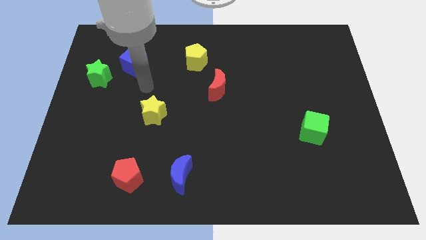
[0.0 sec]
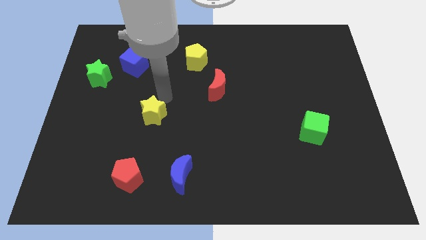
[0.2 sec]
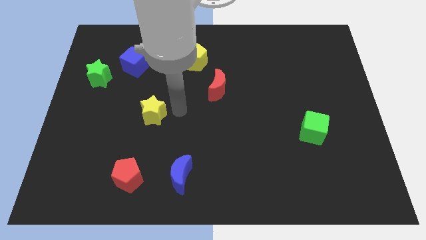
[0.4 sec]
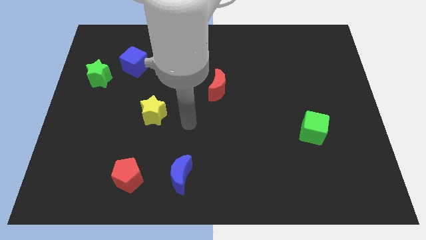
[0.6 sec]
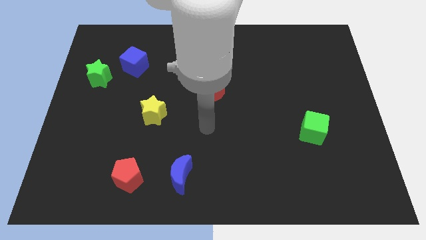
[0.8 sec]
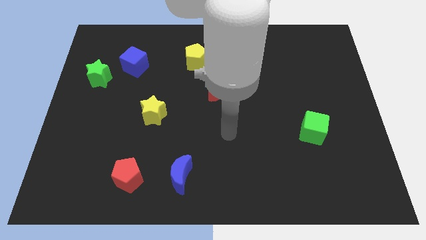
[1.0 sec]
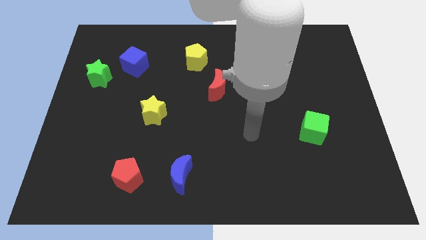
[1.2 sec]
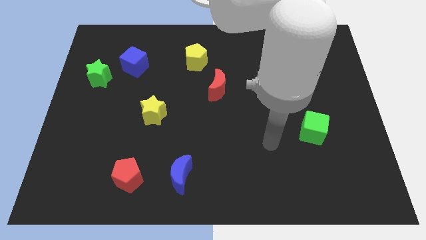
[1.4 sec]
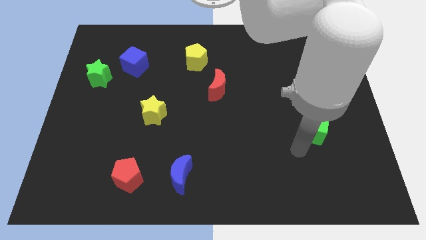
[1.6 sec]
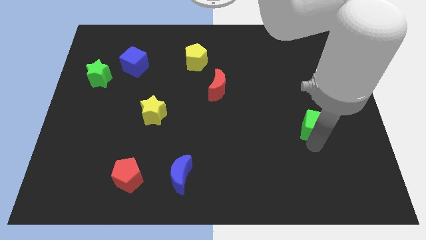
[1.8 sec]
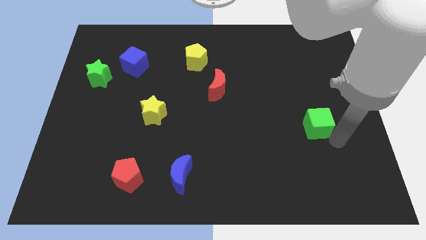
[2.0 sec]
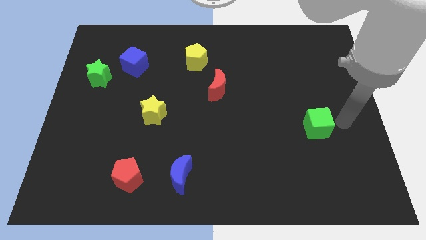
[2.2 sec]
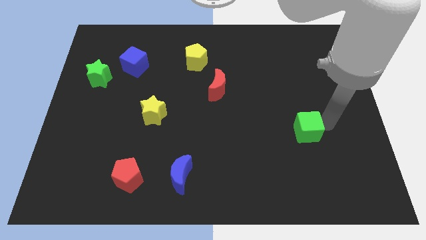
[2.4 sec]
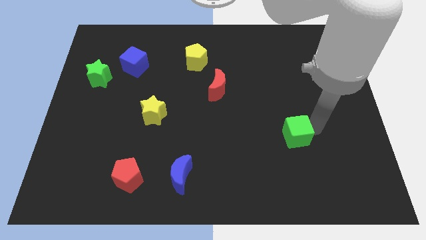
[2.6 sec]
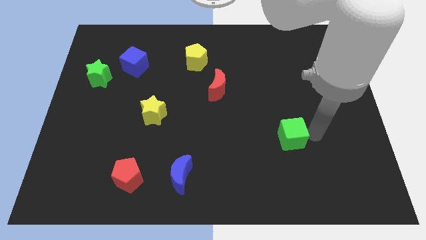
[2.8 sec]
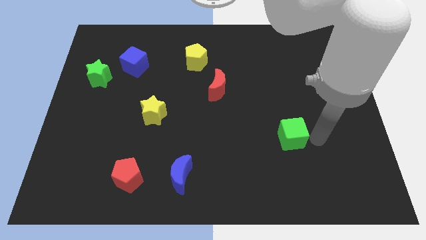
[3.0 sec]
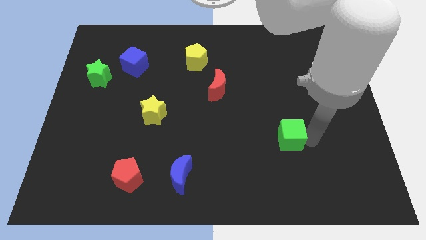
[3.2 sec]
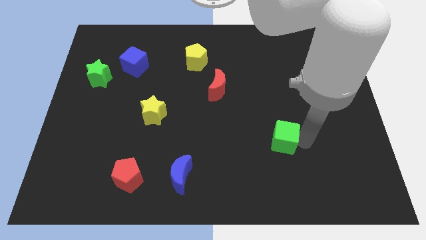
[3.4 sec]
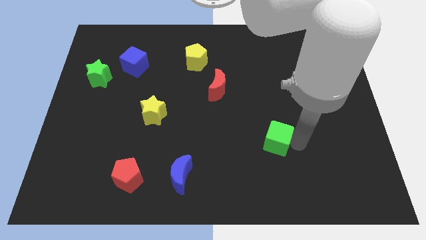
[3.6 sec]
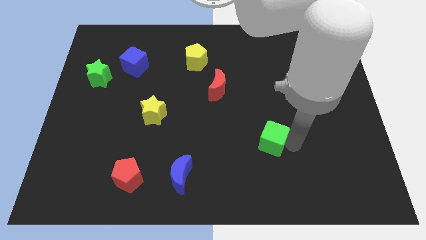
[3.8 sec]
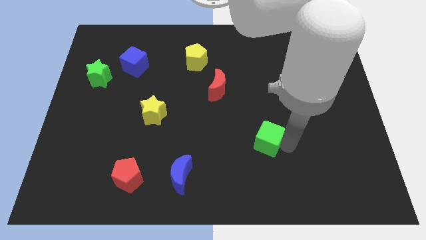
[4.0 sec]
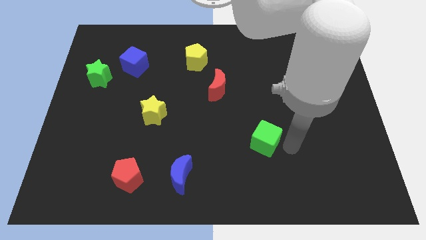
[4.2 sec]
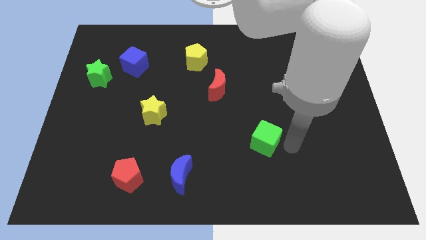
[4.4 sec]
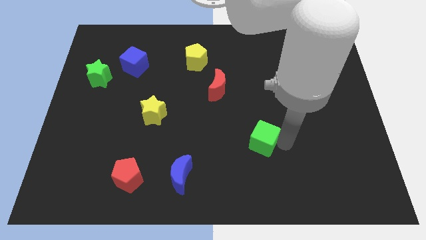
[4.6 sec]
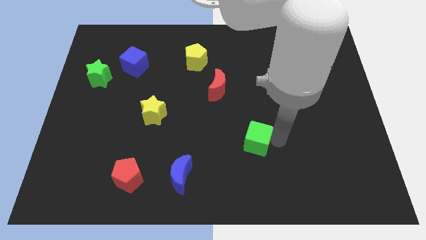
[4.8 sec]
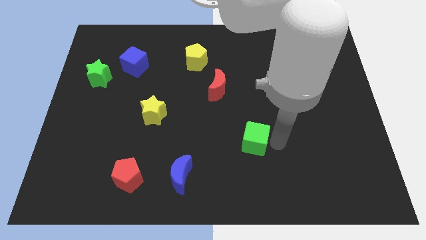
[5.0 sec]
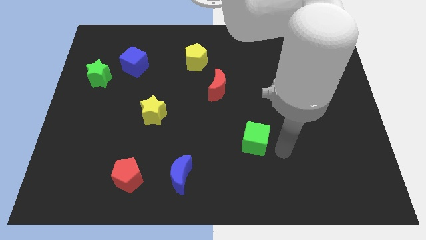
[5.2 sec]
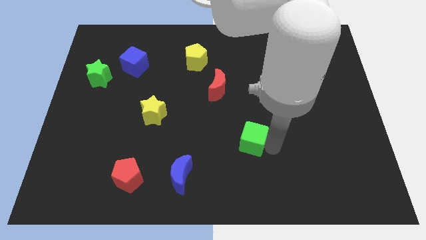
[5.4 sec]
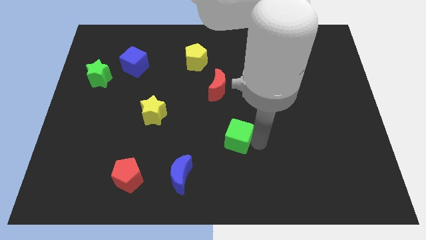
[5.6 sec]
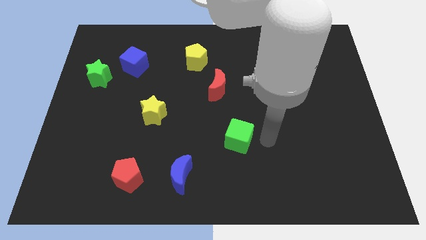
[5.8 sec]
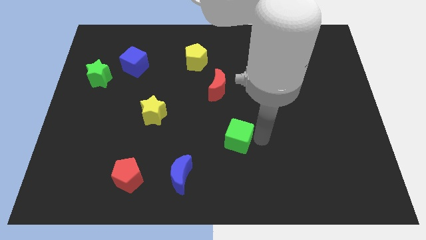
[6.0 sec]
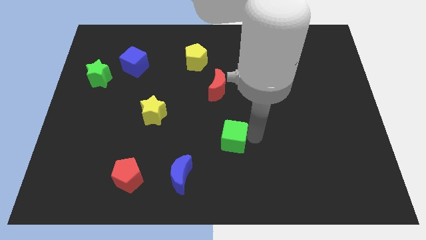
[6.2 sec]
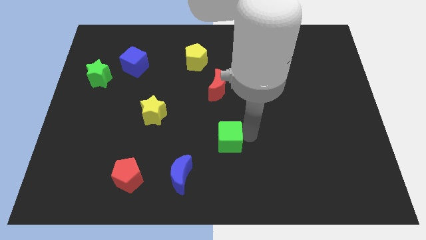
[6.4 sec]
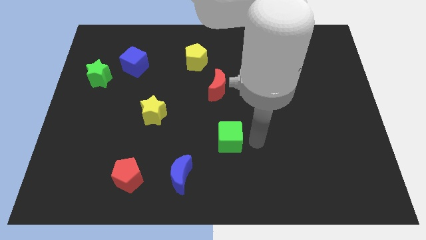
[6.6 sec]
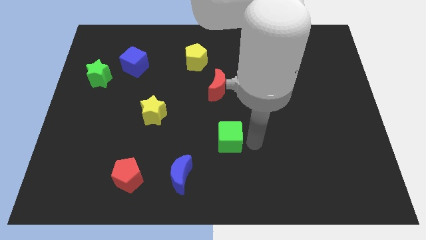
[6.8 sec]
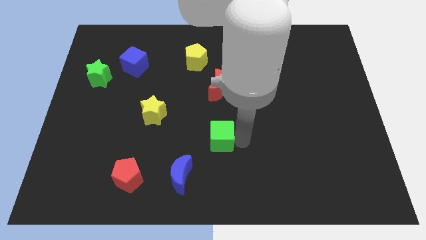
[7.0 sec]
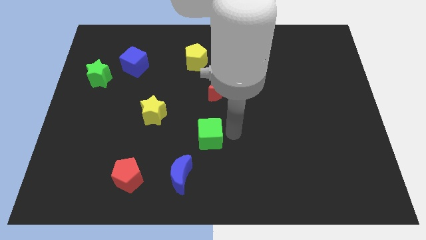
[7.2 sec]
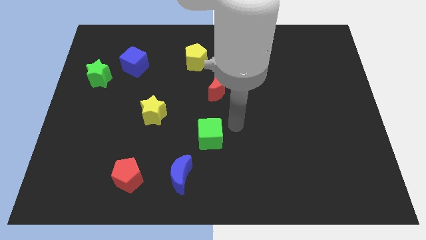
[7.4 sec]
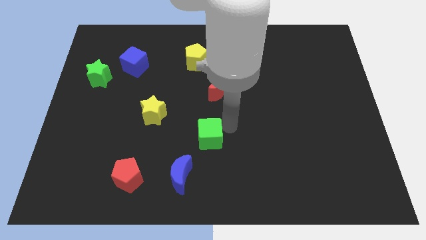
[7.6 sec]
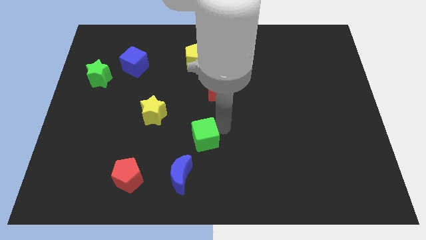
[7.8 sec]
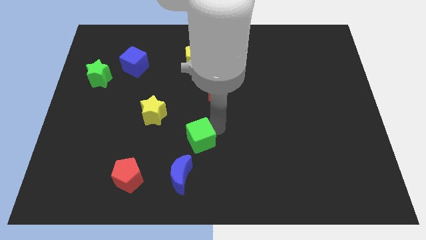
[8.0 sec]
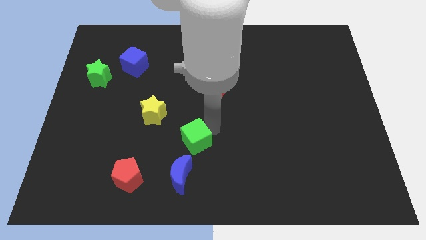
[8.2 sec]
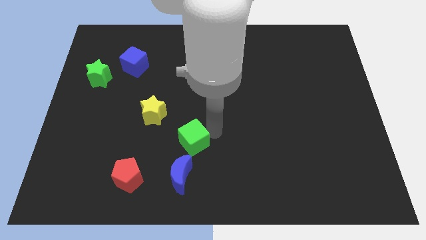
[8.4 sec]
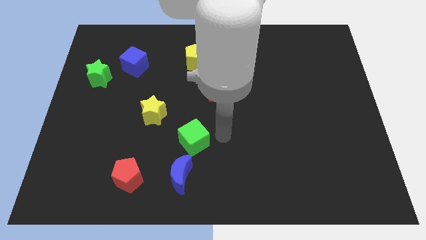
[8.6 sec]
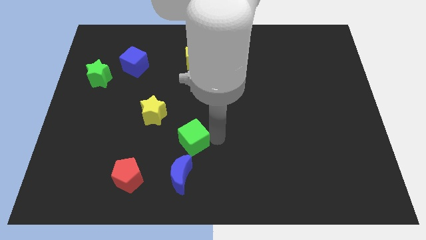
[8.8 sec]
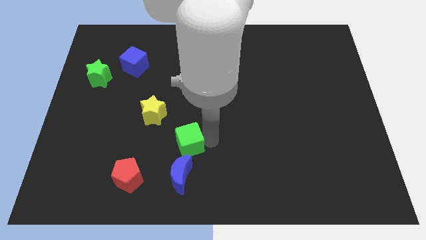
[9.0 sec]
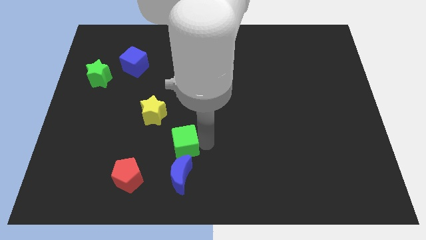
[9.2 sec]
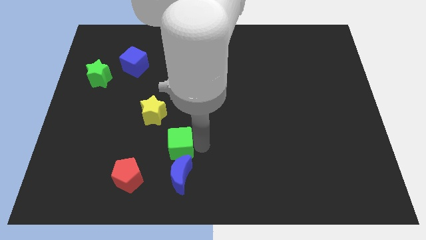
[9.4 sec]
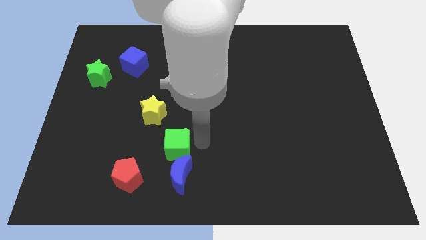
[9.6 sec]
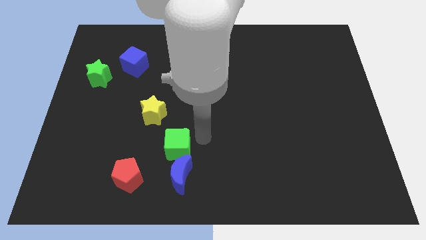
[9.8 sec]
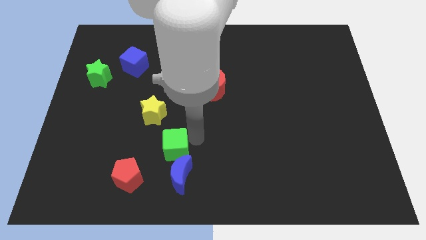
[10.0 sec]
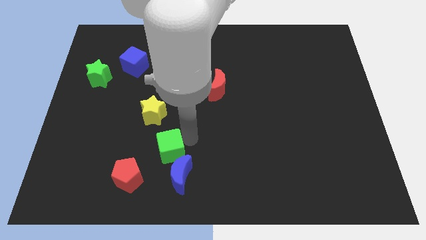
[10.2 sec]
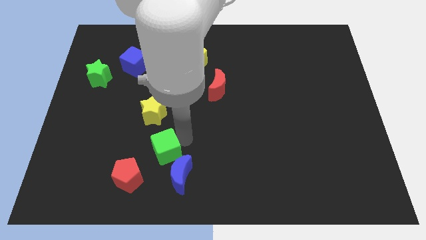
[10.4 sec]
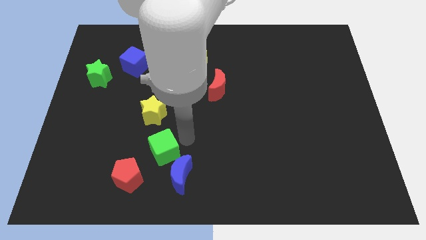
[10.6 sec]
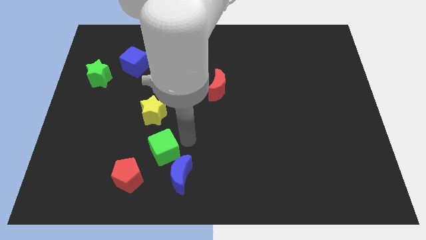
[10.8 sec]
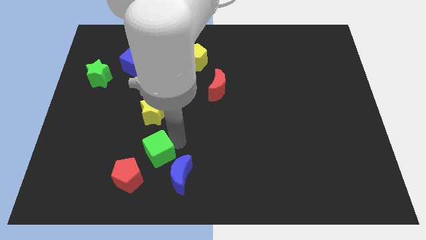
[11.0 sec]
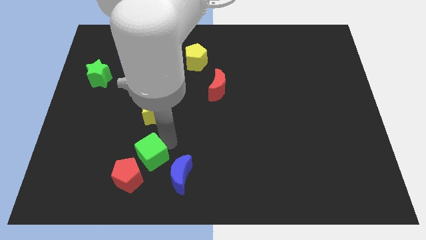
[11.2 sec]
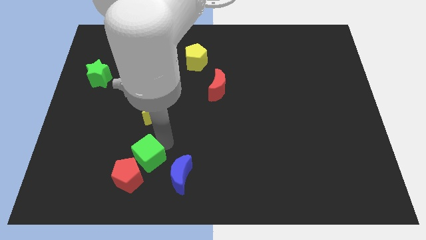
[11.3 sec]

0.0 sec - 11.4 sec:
push the green cube next to the red pentagon

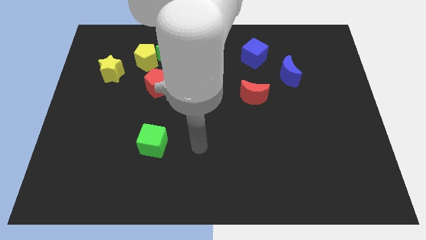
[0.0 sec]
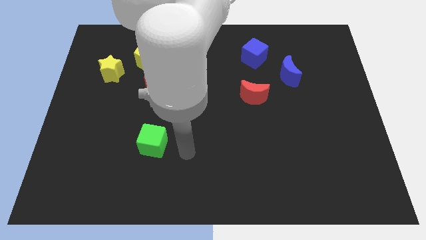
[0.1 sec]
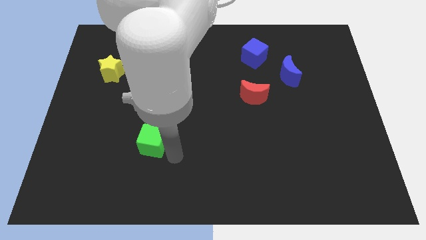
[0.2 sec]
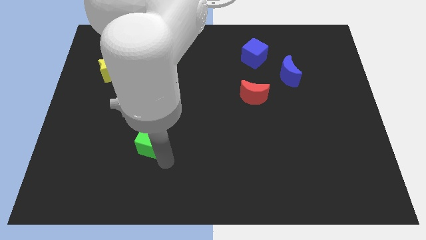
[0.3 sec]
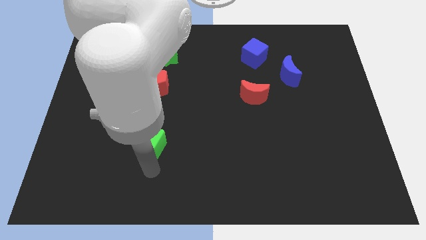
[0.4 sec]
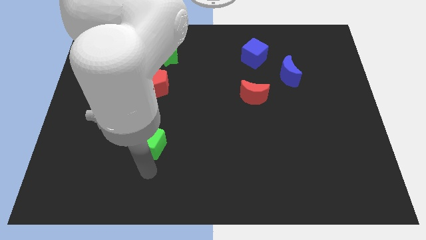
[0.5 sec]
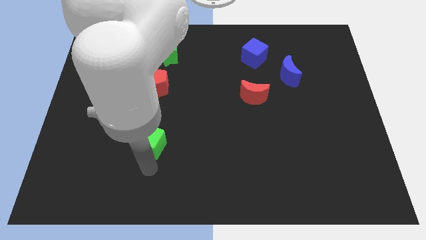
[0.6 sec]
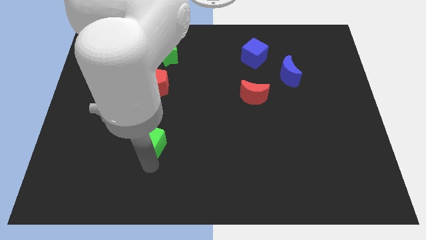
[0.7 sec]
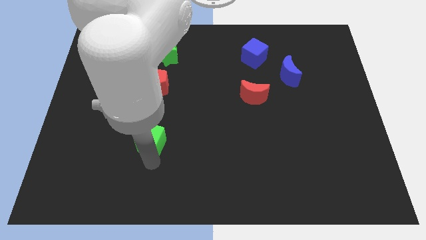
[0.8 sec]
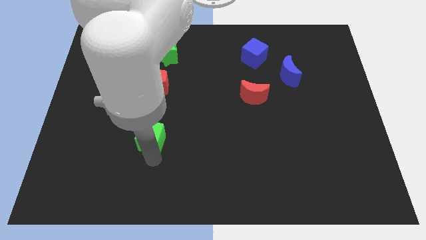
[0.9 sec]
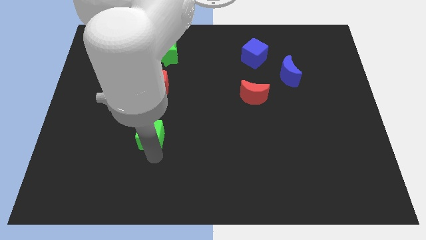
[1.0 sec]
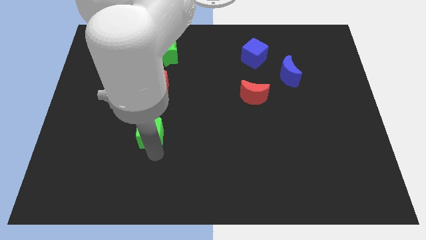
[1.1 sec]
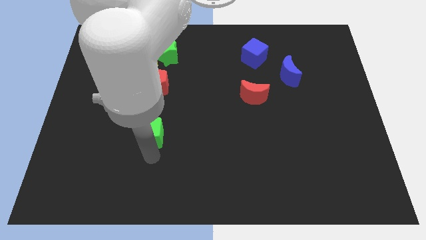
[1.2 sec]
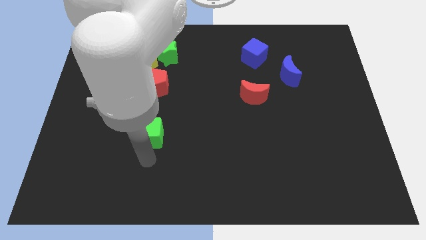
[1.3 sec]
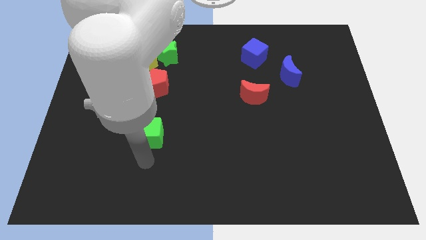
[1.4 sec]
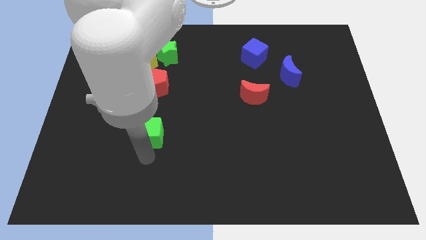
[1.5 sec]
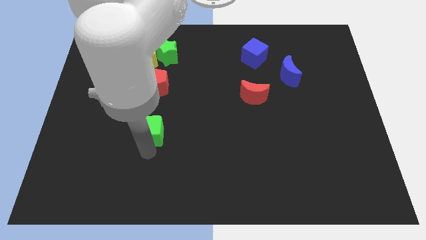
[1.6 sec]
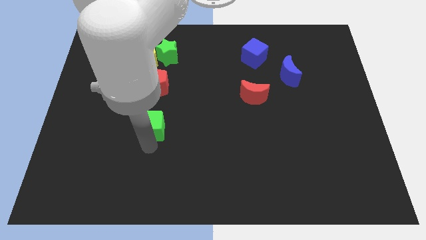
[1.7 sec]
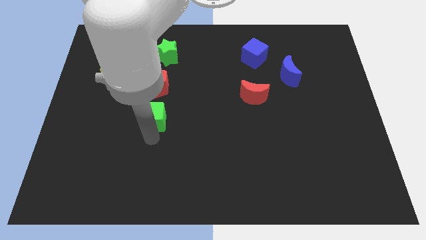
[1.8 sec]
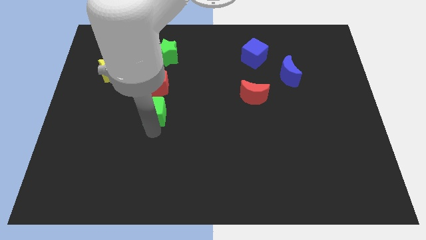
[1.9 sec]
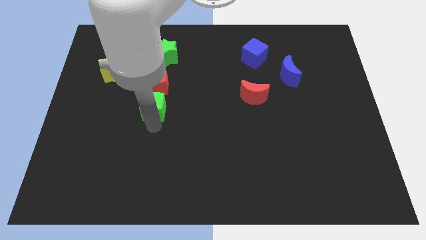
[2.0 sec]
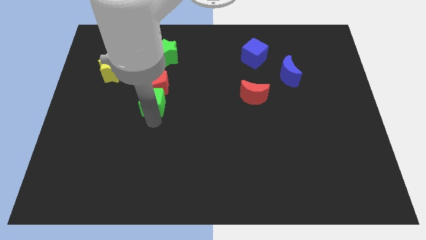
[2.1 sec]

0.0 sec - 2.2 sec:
slide the green cube next to the red pentagon
